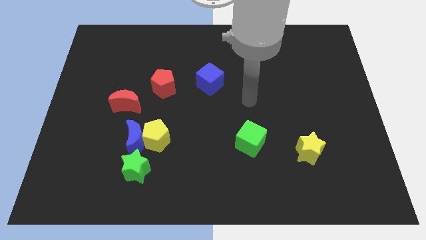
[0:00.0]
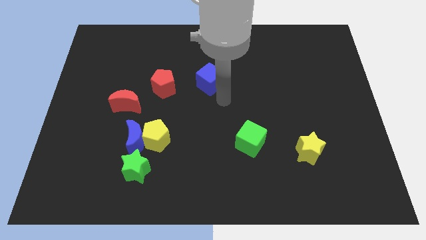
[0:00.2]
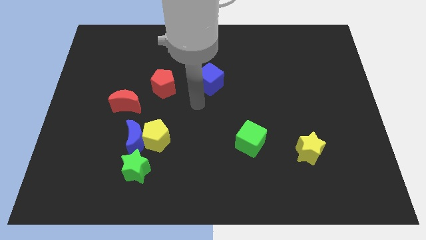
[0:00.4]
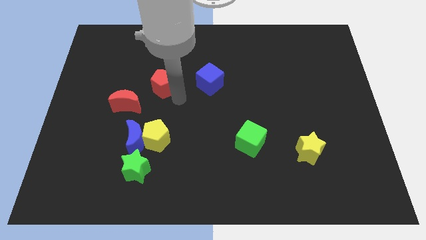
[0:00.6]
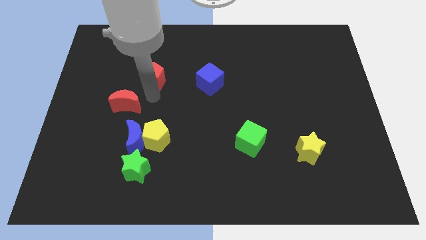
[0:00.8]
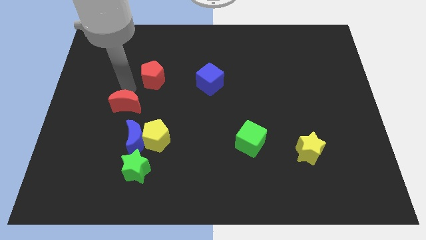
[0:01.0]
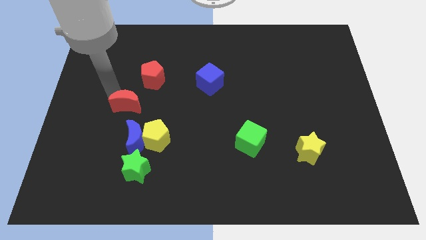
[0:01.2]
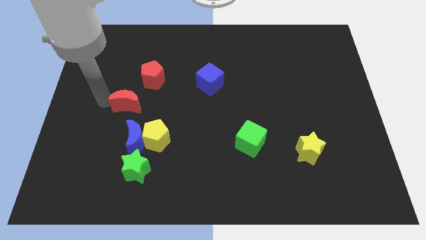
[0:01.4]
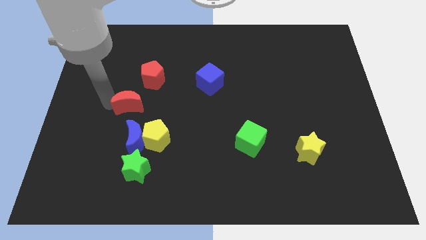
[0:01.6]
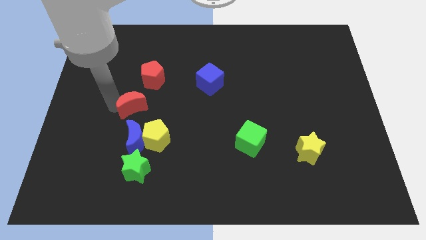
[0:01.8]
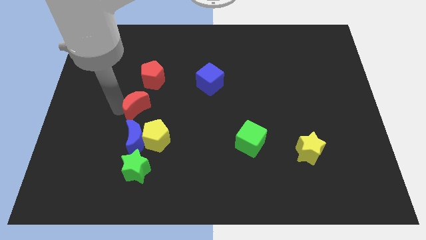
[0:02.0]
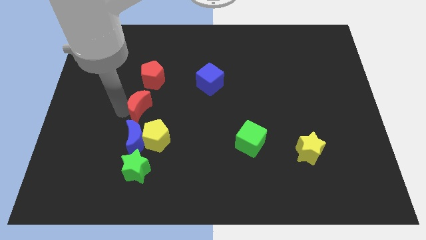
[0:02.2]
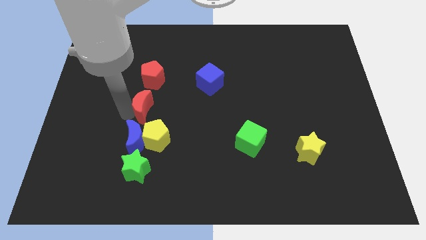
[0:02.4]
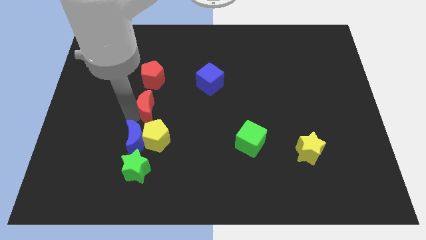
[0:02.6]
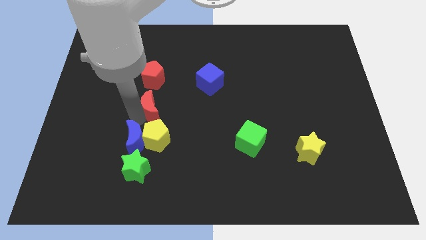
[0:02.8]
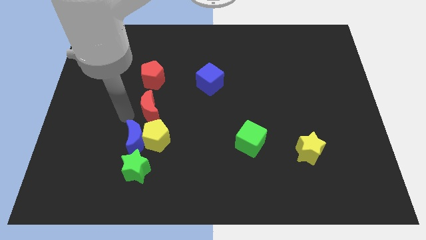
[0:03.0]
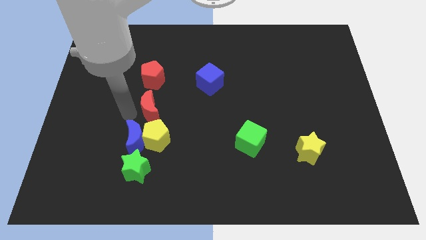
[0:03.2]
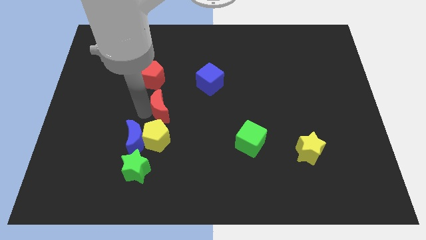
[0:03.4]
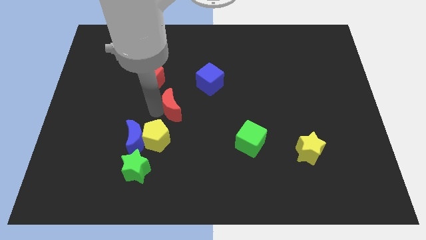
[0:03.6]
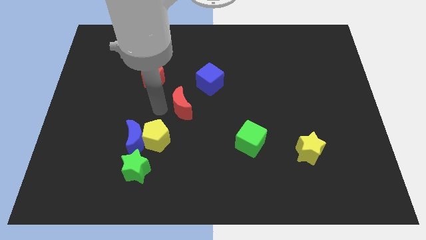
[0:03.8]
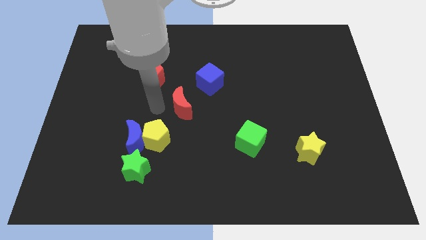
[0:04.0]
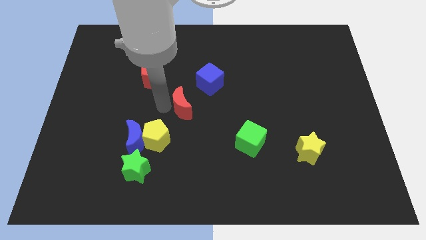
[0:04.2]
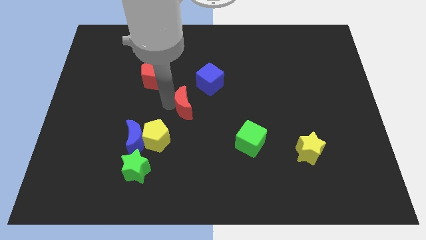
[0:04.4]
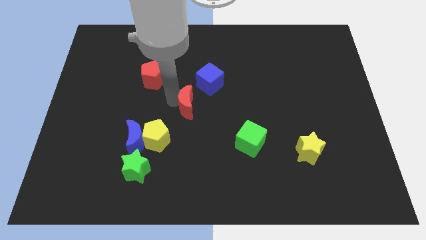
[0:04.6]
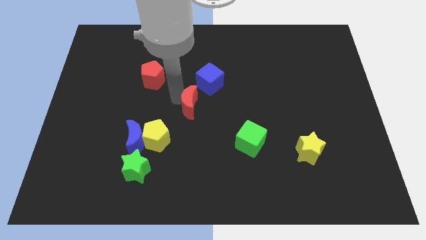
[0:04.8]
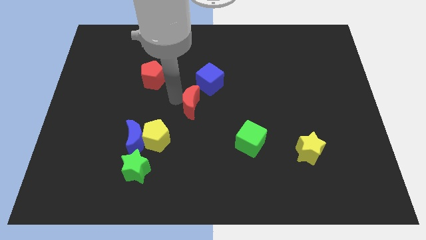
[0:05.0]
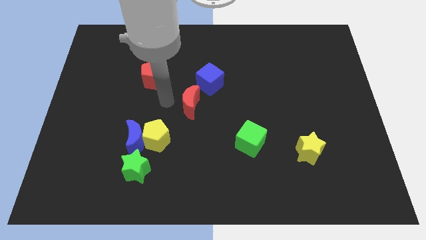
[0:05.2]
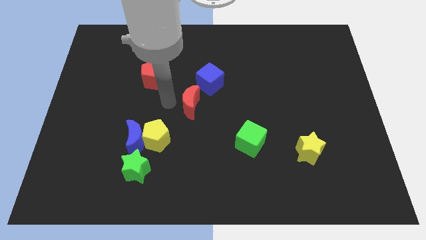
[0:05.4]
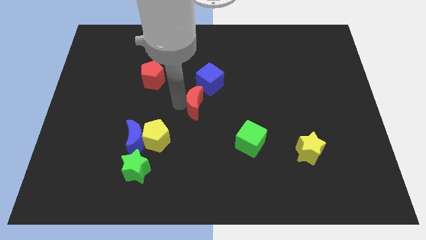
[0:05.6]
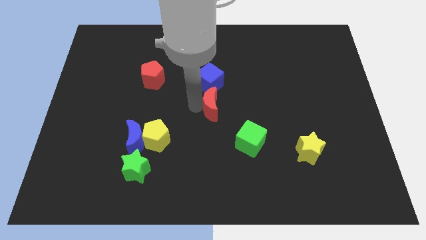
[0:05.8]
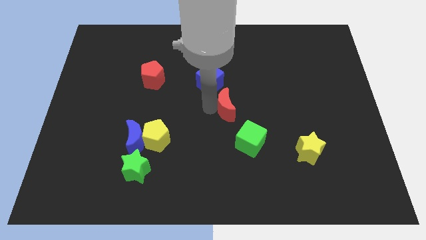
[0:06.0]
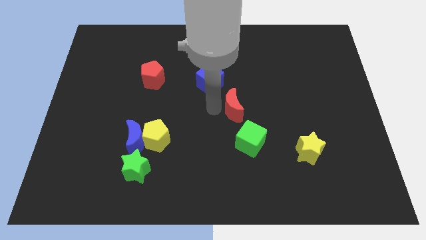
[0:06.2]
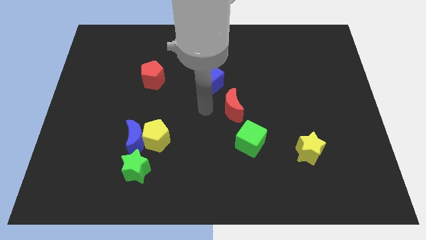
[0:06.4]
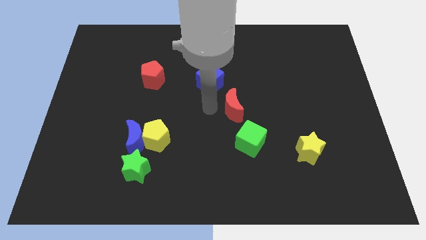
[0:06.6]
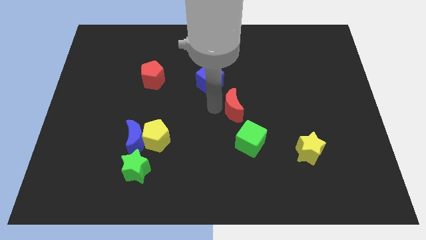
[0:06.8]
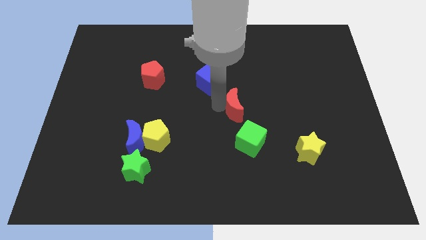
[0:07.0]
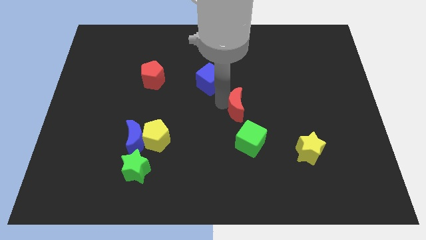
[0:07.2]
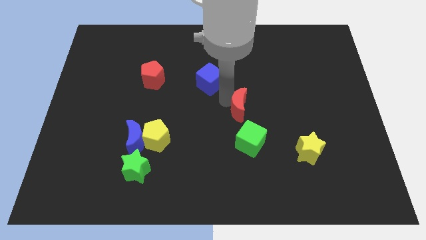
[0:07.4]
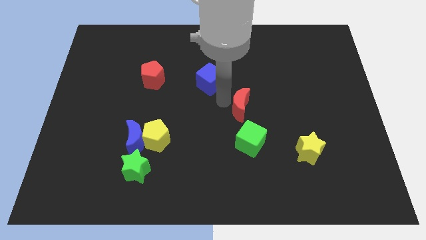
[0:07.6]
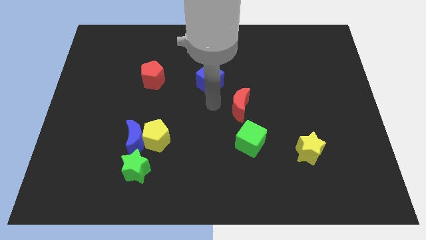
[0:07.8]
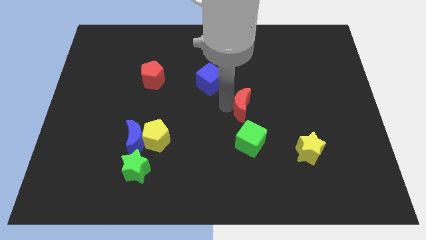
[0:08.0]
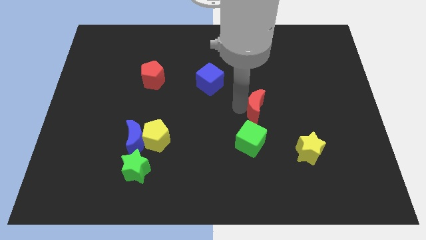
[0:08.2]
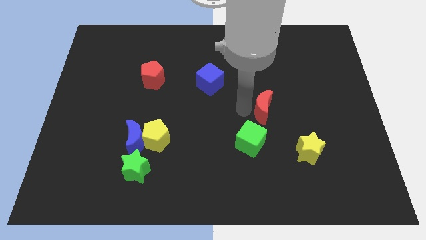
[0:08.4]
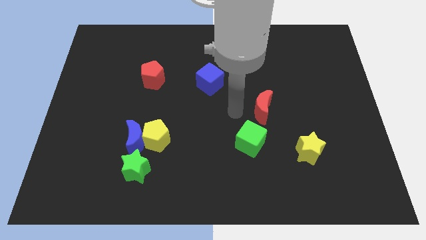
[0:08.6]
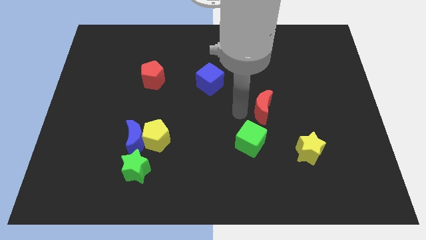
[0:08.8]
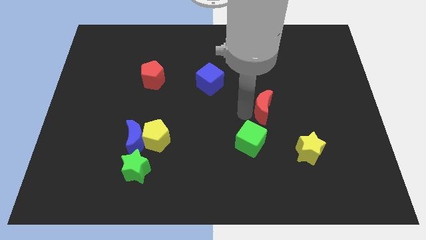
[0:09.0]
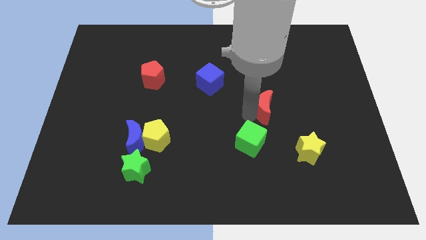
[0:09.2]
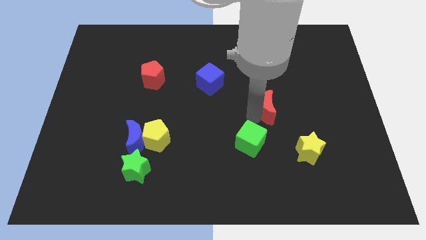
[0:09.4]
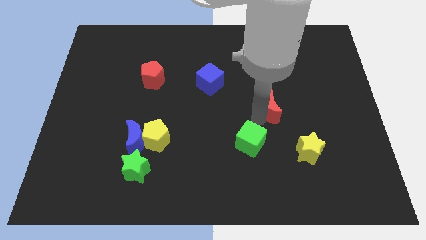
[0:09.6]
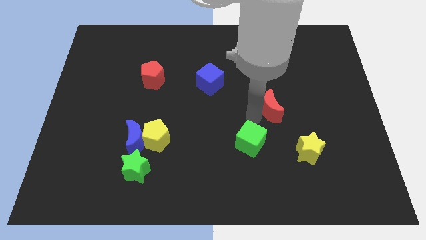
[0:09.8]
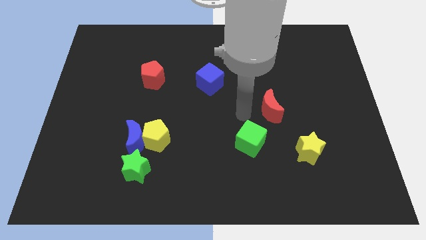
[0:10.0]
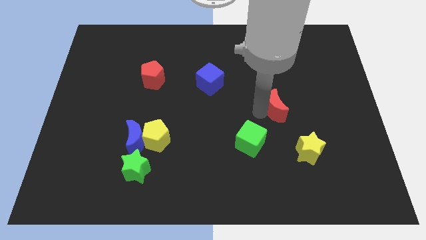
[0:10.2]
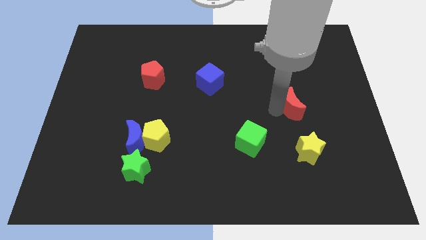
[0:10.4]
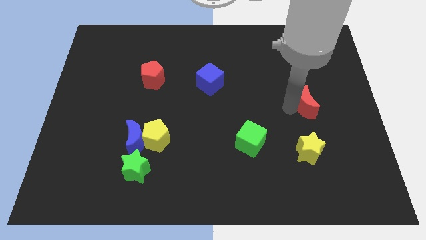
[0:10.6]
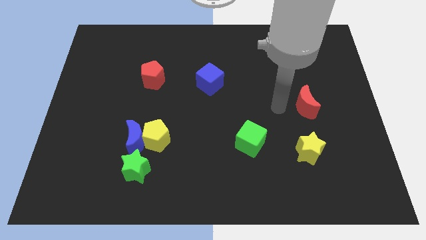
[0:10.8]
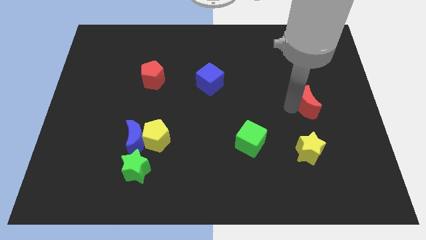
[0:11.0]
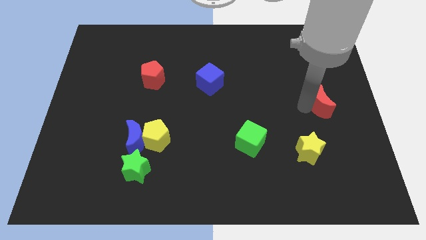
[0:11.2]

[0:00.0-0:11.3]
push the red moon to the right side of the board

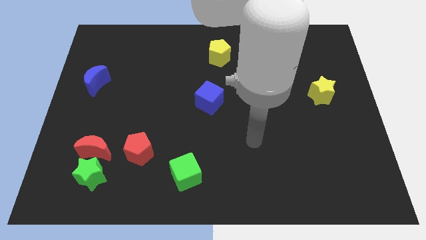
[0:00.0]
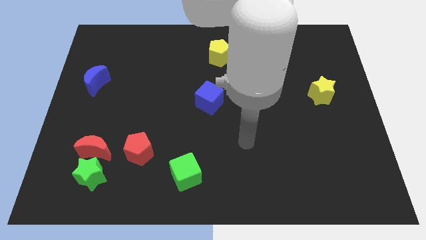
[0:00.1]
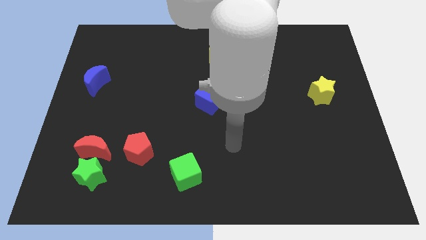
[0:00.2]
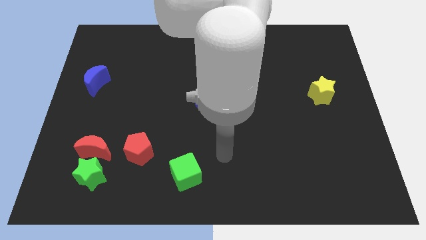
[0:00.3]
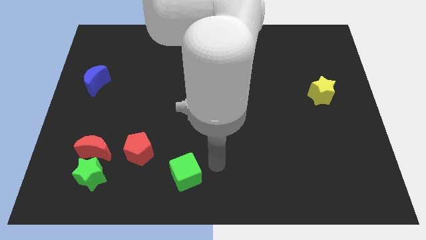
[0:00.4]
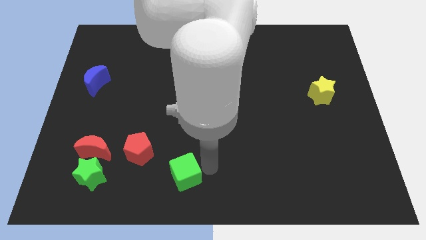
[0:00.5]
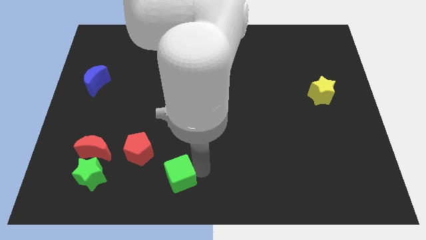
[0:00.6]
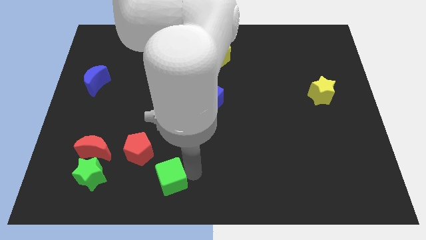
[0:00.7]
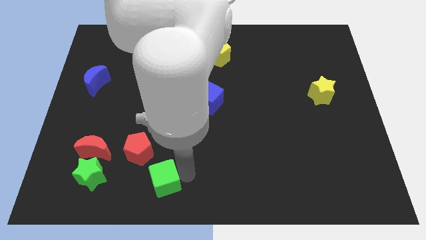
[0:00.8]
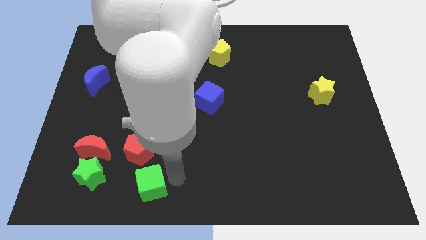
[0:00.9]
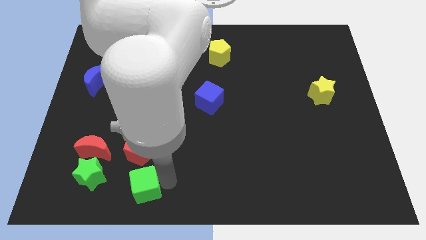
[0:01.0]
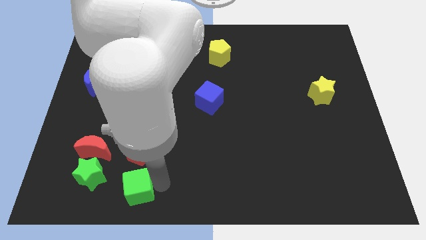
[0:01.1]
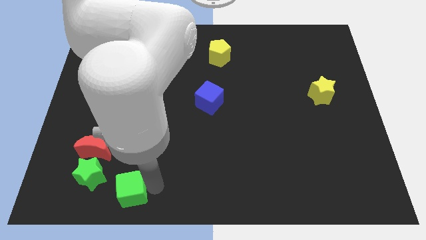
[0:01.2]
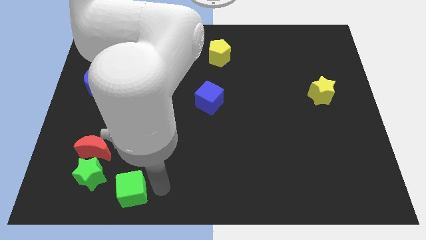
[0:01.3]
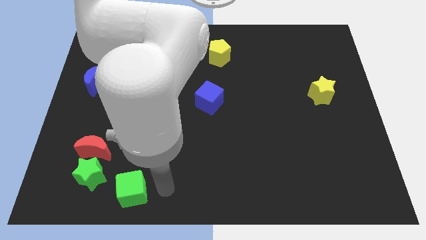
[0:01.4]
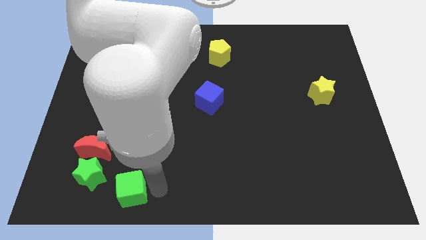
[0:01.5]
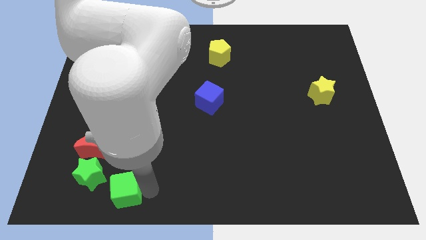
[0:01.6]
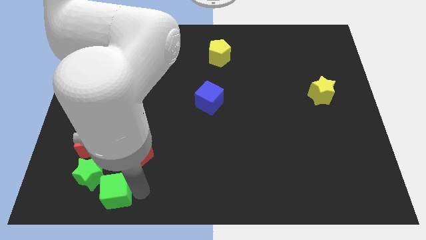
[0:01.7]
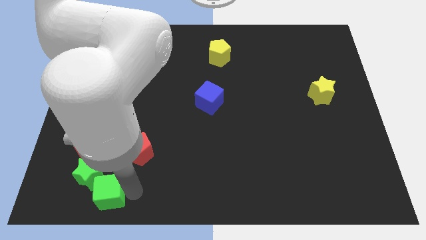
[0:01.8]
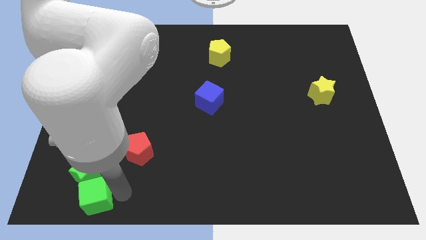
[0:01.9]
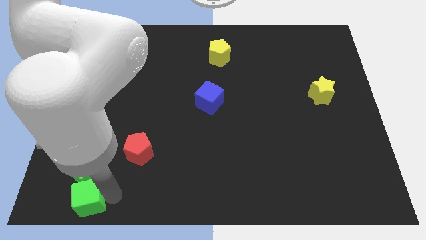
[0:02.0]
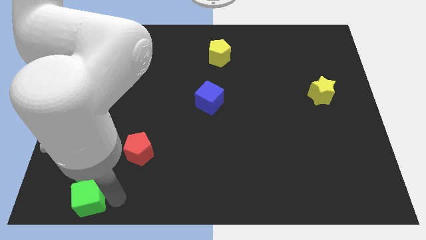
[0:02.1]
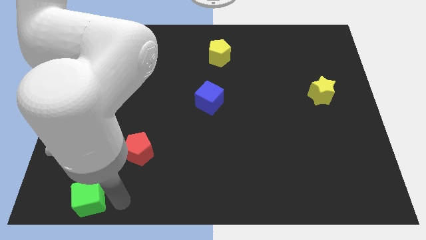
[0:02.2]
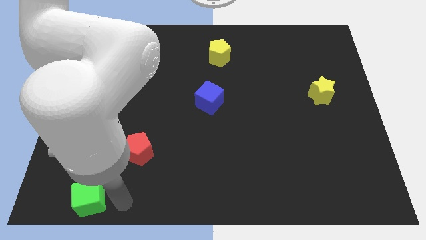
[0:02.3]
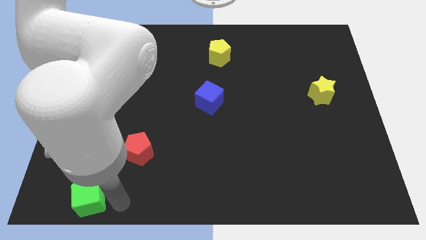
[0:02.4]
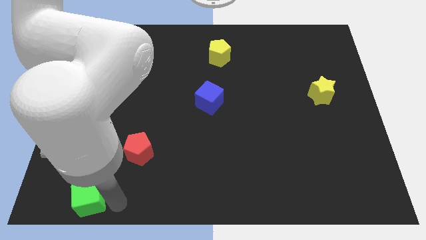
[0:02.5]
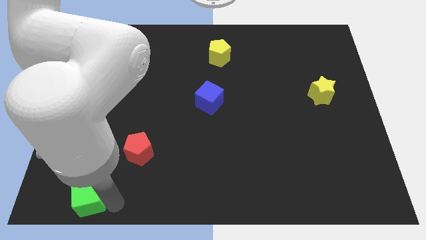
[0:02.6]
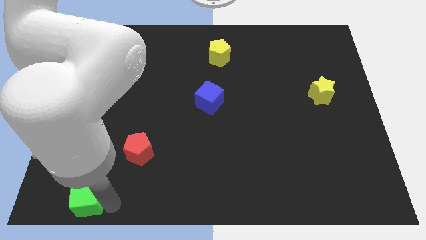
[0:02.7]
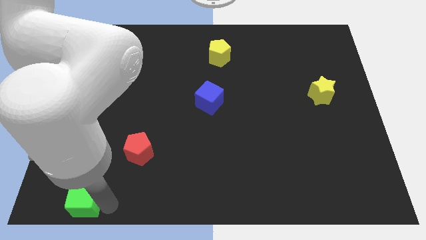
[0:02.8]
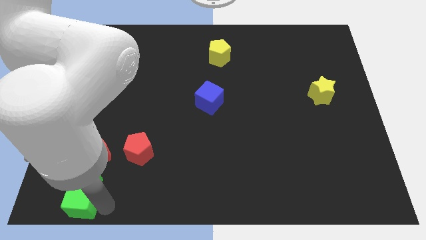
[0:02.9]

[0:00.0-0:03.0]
push the green cube to the lower left corner
